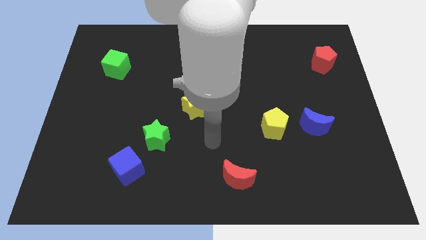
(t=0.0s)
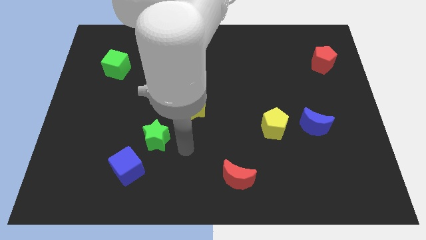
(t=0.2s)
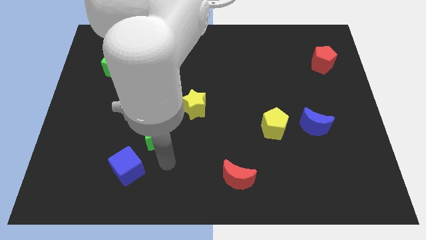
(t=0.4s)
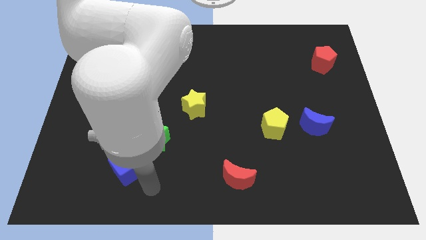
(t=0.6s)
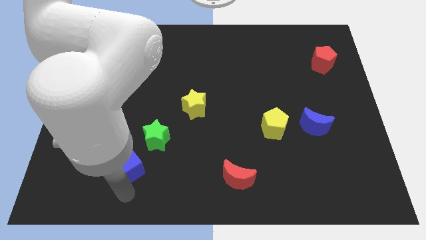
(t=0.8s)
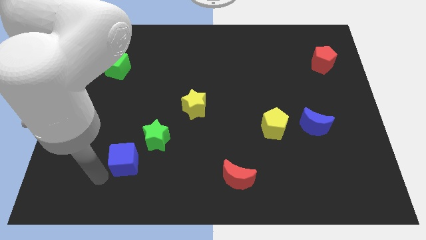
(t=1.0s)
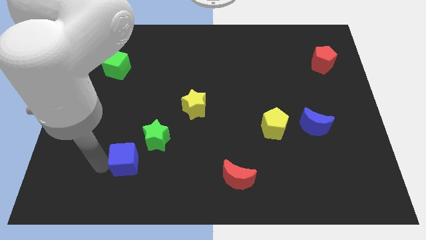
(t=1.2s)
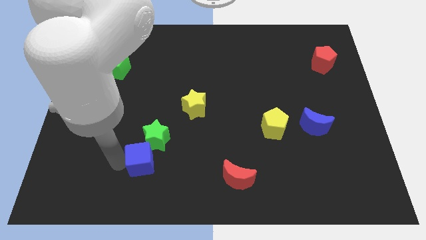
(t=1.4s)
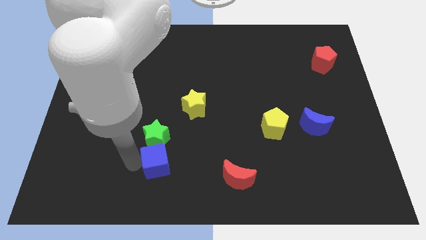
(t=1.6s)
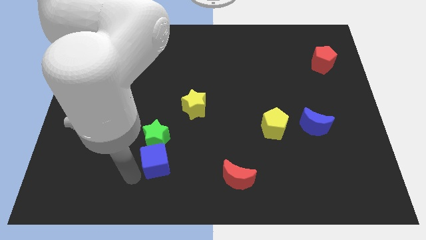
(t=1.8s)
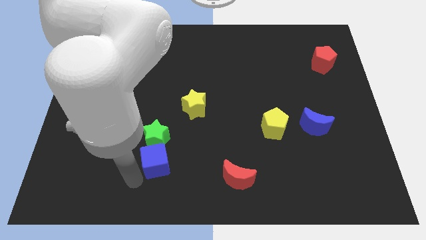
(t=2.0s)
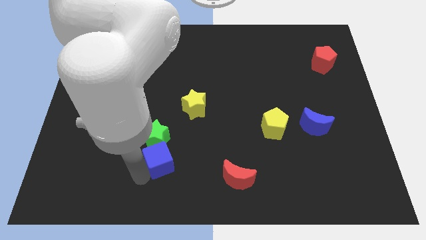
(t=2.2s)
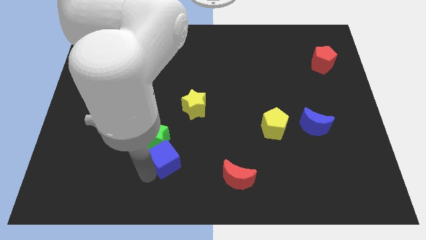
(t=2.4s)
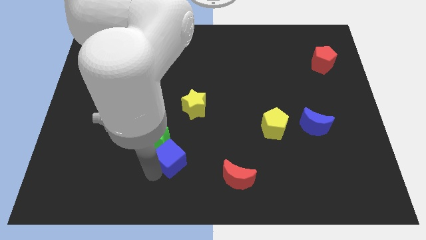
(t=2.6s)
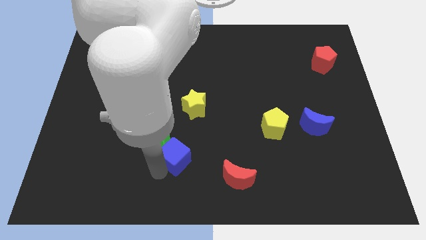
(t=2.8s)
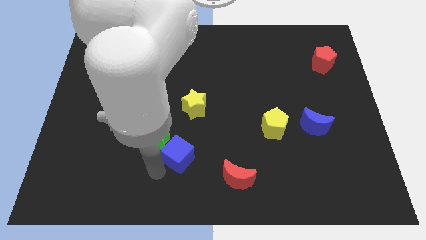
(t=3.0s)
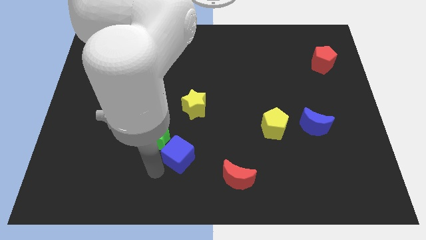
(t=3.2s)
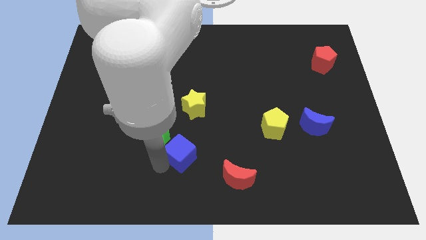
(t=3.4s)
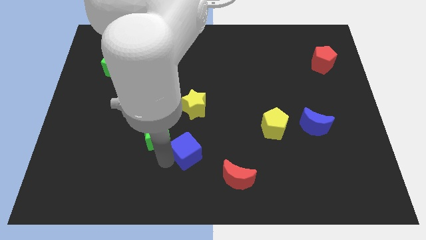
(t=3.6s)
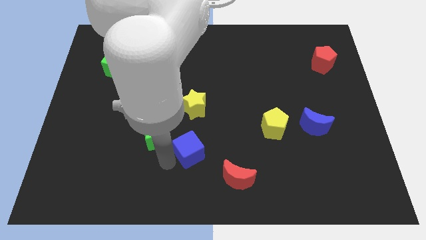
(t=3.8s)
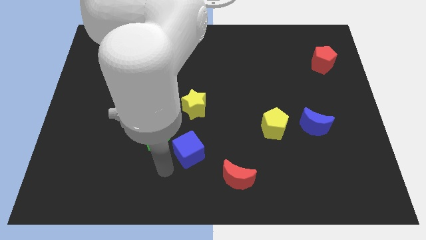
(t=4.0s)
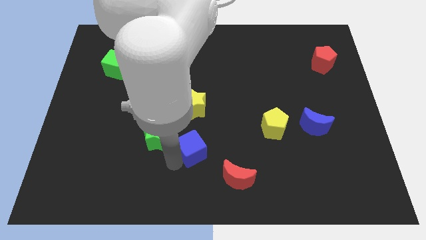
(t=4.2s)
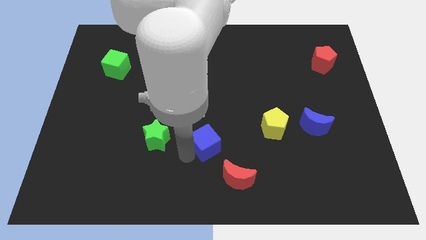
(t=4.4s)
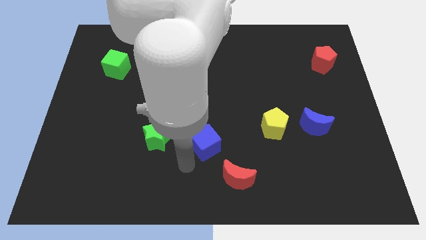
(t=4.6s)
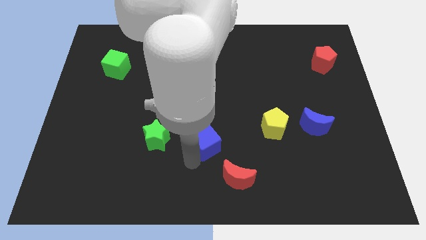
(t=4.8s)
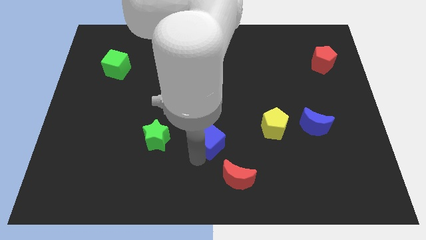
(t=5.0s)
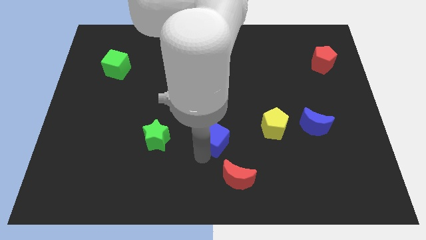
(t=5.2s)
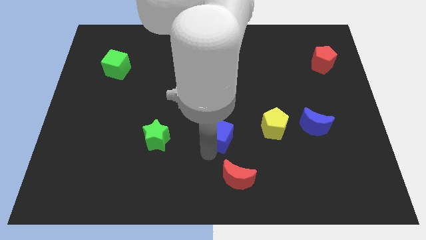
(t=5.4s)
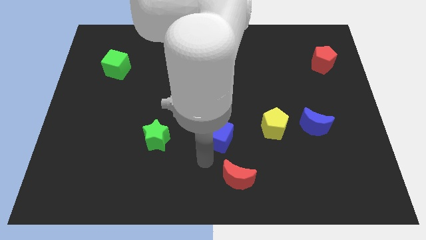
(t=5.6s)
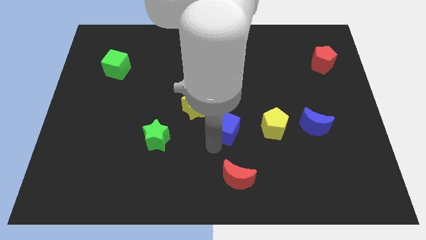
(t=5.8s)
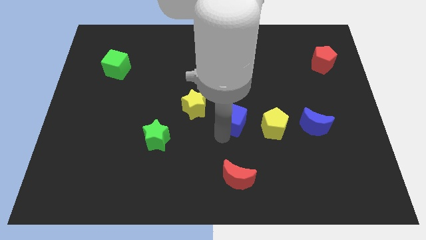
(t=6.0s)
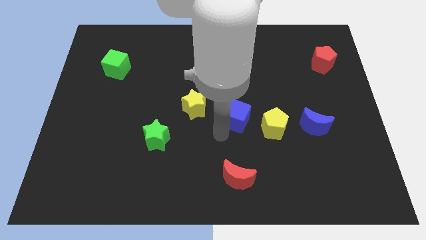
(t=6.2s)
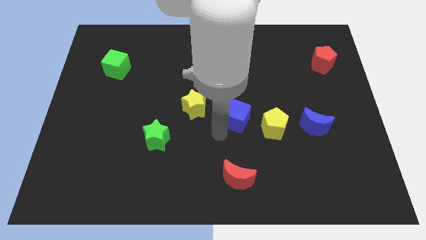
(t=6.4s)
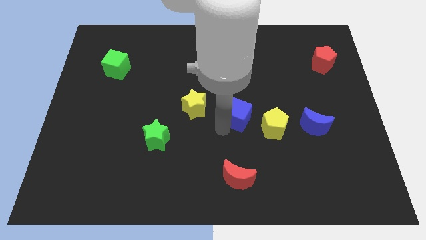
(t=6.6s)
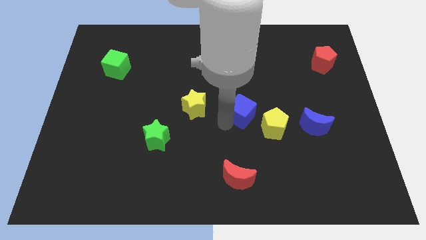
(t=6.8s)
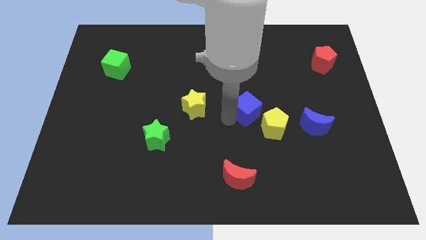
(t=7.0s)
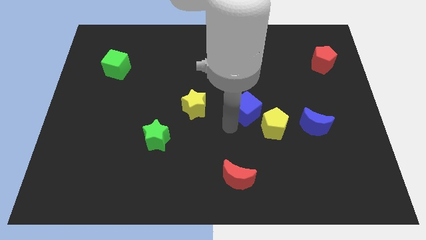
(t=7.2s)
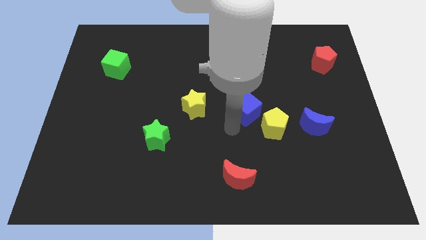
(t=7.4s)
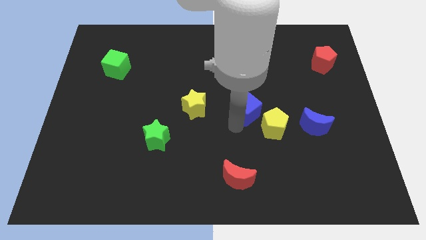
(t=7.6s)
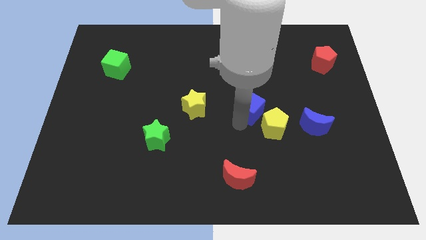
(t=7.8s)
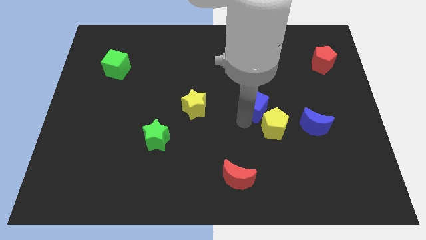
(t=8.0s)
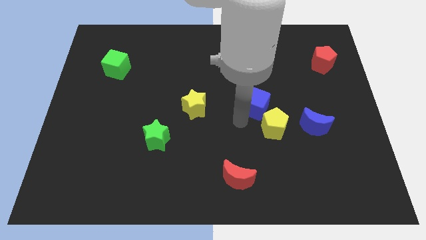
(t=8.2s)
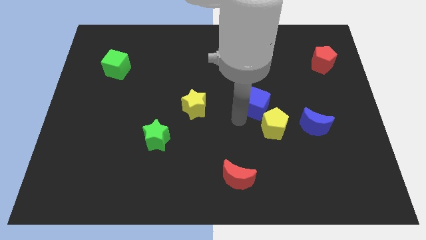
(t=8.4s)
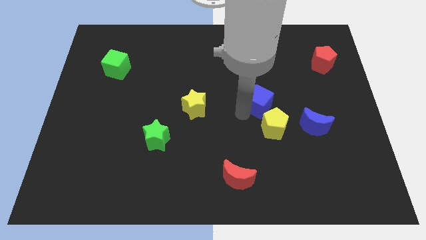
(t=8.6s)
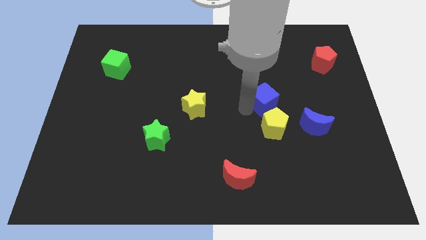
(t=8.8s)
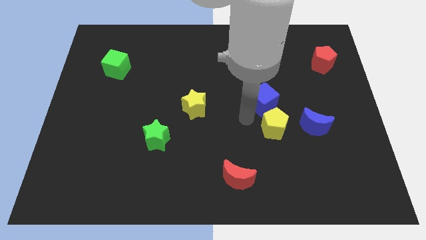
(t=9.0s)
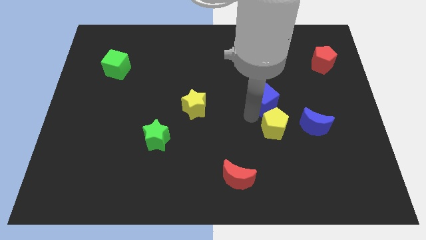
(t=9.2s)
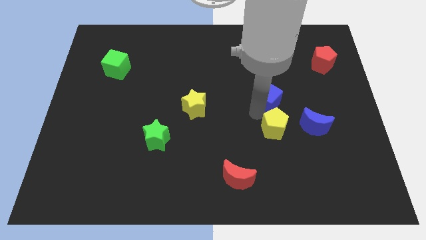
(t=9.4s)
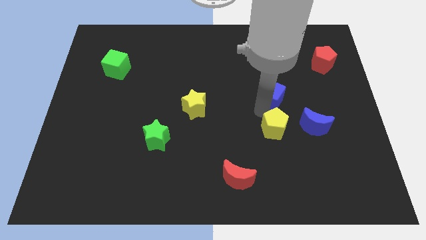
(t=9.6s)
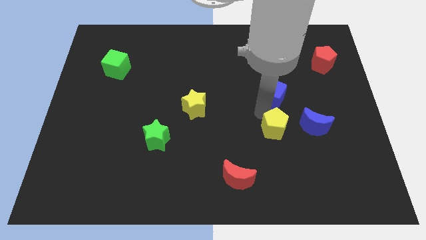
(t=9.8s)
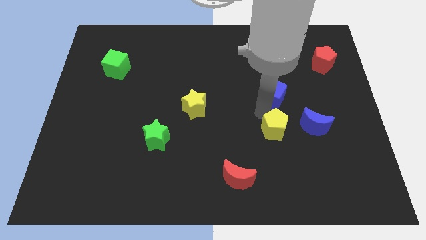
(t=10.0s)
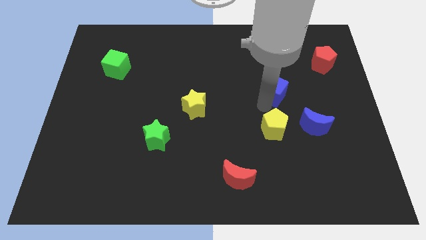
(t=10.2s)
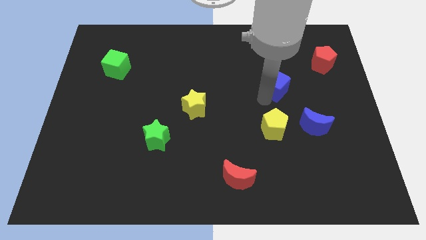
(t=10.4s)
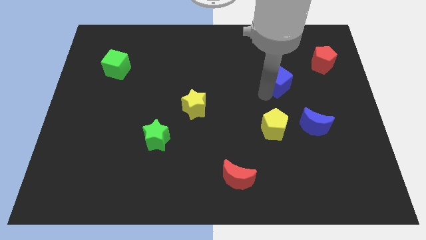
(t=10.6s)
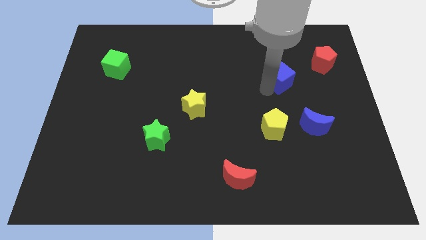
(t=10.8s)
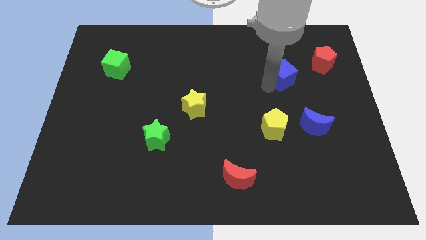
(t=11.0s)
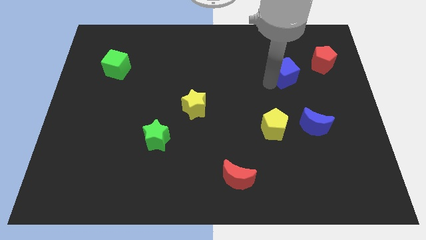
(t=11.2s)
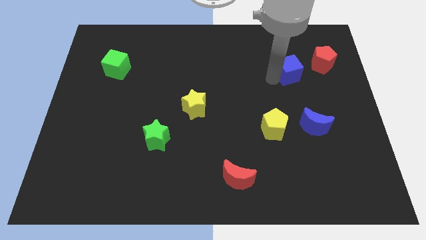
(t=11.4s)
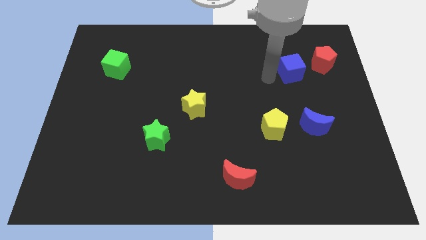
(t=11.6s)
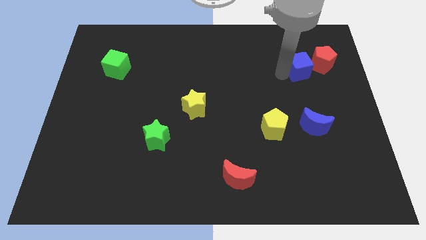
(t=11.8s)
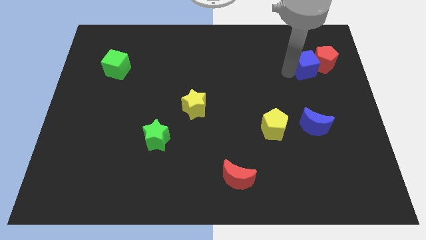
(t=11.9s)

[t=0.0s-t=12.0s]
move the blue cube next to the red pentagon

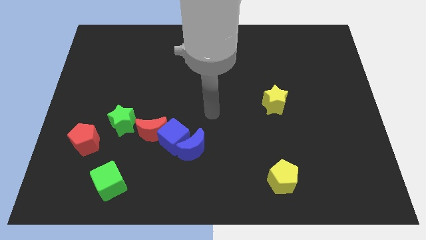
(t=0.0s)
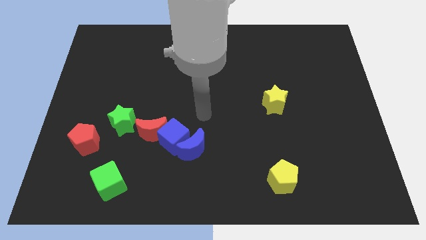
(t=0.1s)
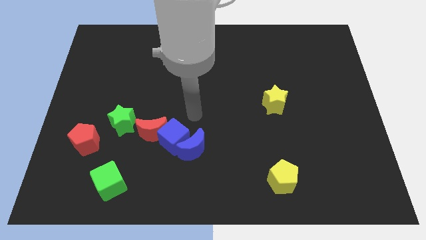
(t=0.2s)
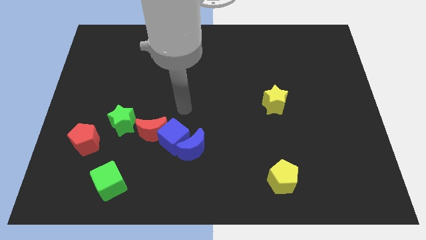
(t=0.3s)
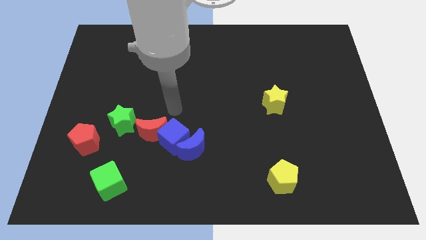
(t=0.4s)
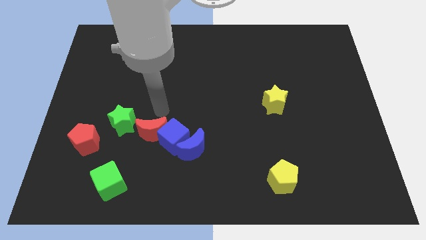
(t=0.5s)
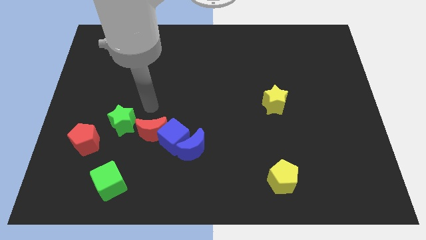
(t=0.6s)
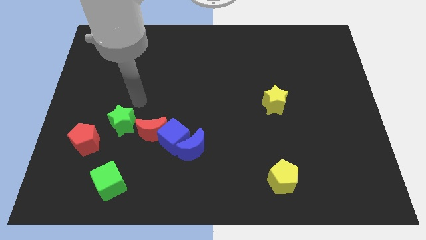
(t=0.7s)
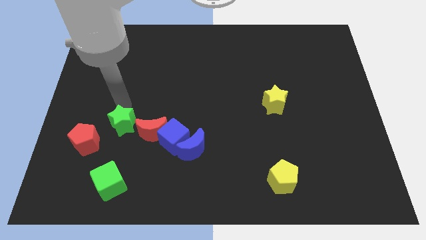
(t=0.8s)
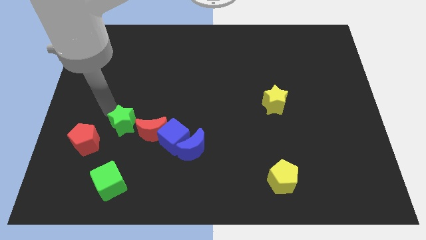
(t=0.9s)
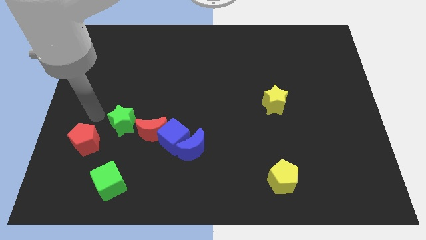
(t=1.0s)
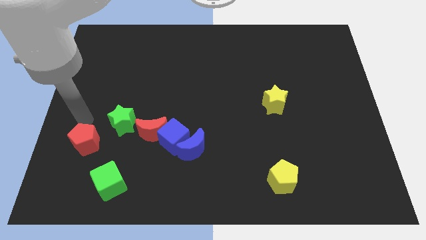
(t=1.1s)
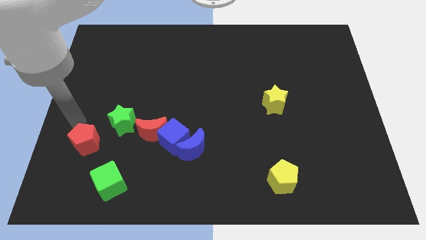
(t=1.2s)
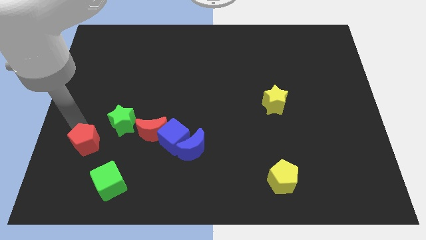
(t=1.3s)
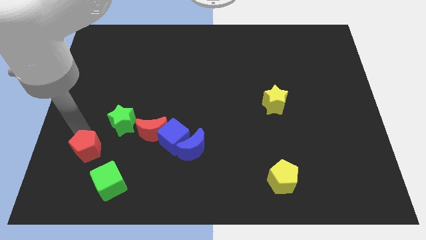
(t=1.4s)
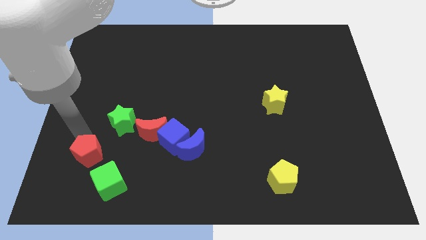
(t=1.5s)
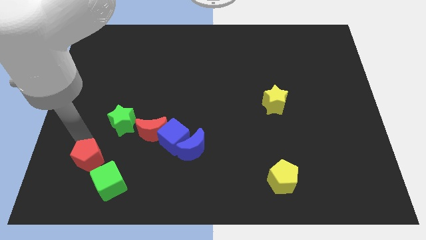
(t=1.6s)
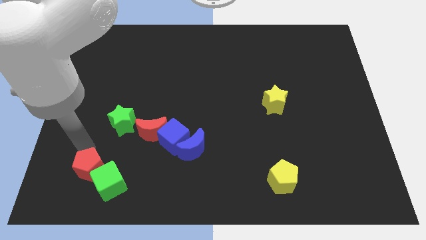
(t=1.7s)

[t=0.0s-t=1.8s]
push the red pentagon close to the green cube
